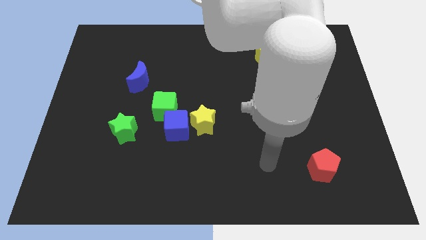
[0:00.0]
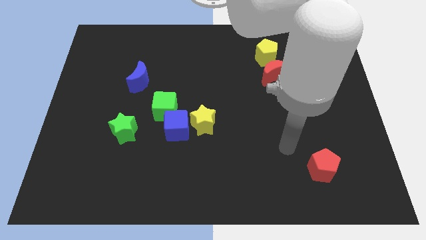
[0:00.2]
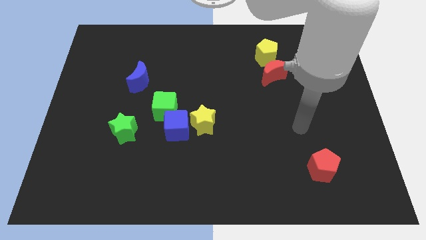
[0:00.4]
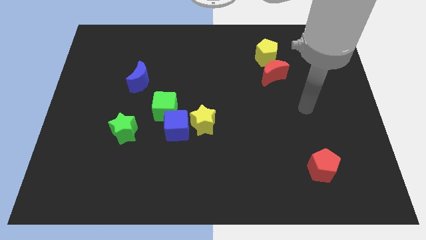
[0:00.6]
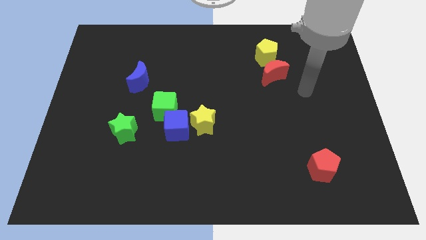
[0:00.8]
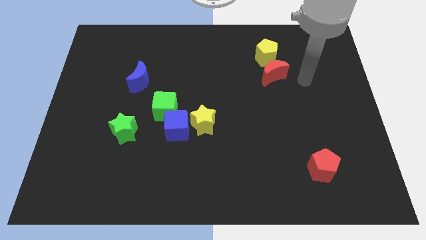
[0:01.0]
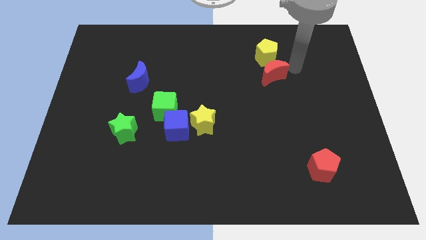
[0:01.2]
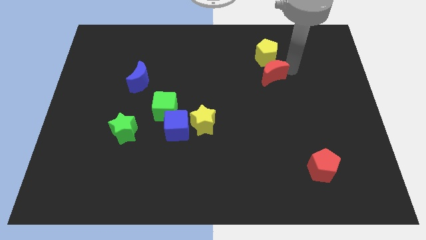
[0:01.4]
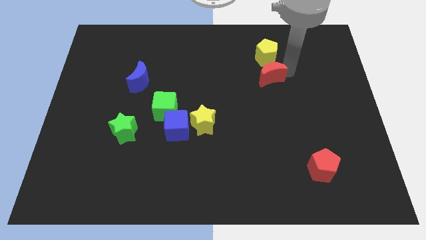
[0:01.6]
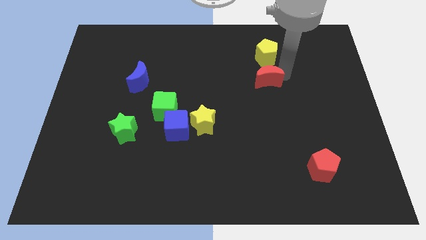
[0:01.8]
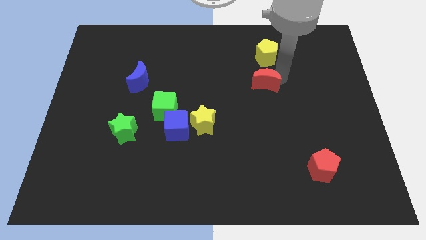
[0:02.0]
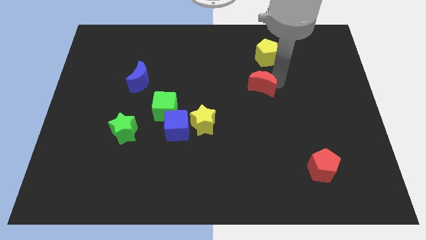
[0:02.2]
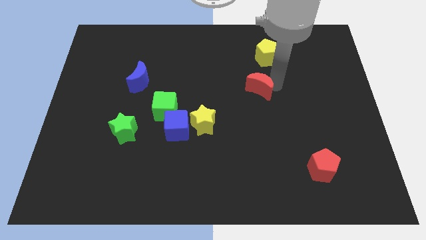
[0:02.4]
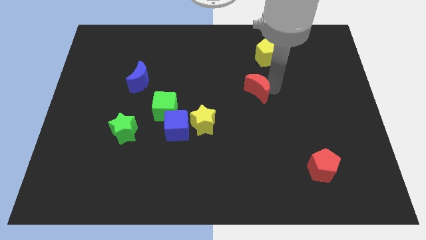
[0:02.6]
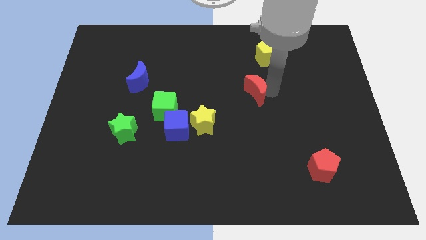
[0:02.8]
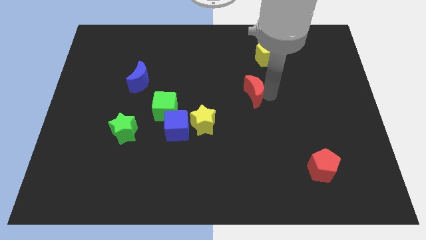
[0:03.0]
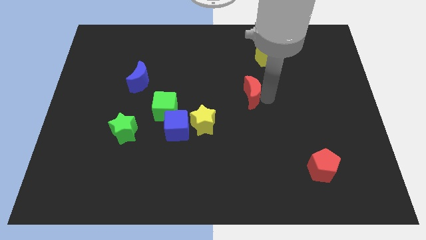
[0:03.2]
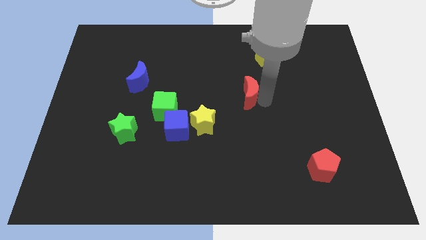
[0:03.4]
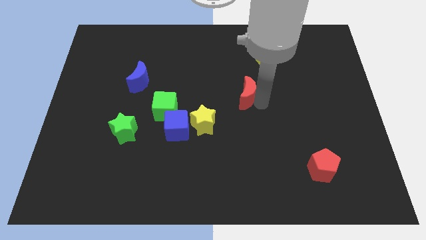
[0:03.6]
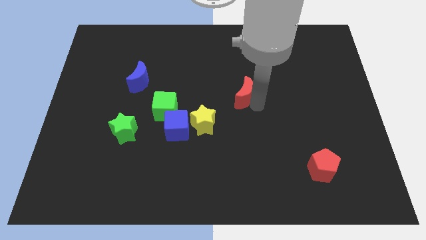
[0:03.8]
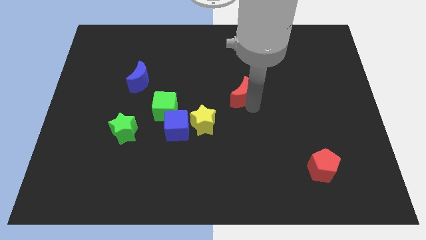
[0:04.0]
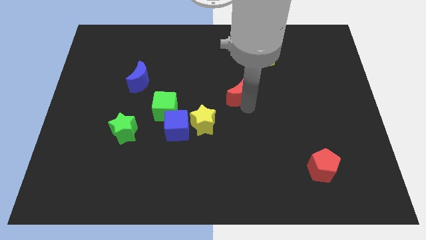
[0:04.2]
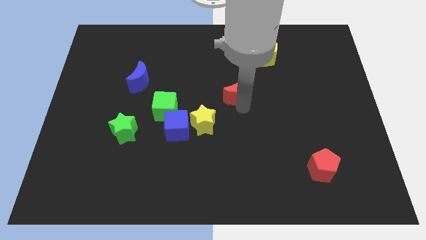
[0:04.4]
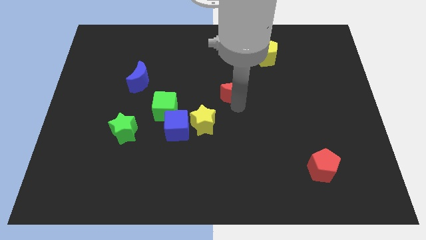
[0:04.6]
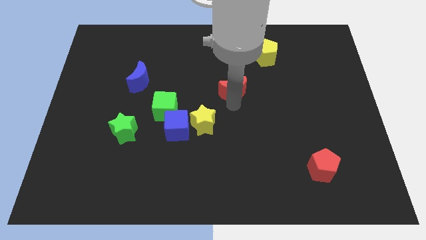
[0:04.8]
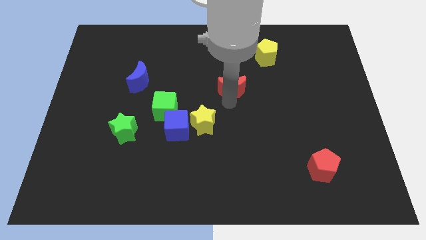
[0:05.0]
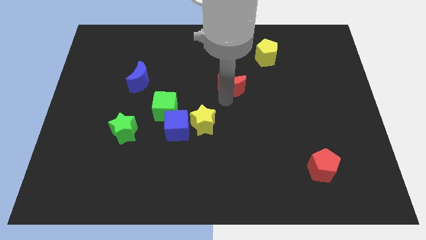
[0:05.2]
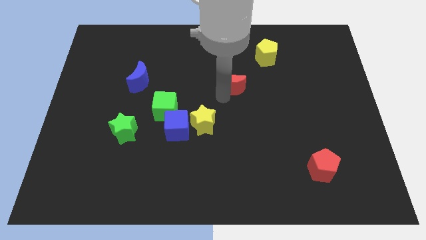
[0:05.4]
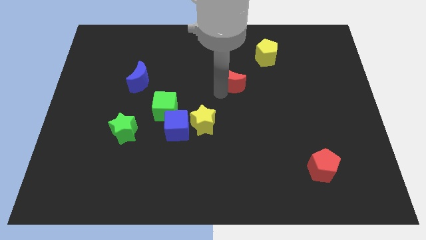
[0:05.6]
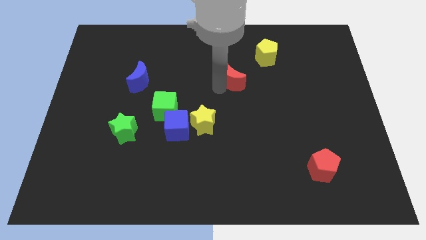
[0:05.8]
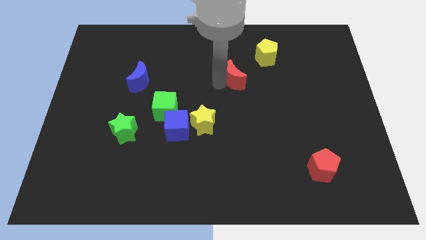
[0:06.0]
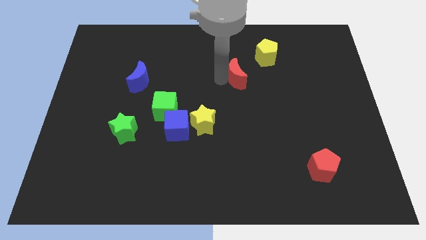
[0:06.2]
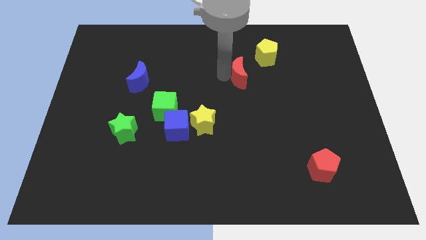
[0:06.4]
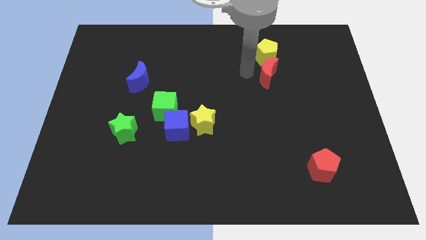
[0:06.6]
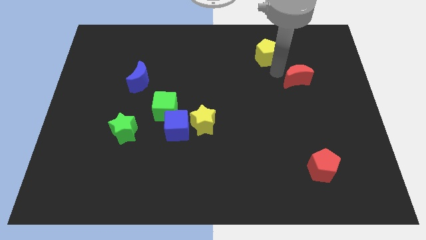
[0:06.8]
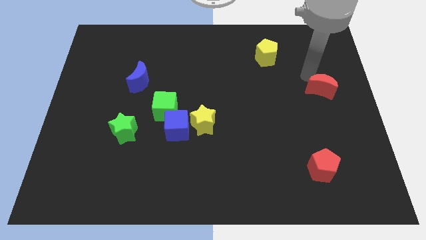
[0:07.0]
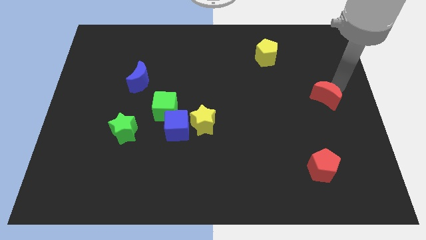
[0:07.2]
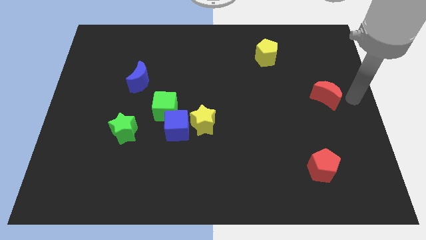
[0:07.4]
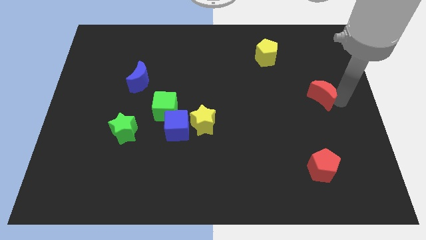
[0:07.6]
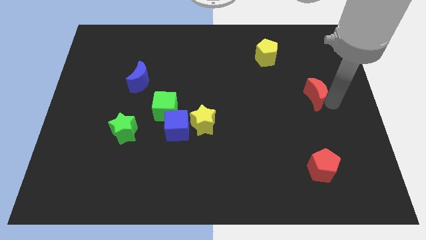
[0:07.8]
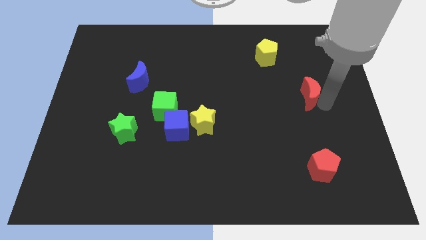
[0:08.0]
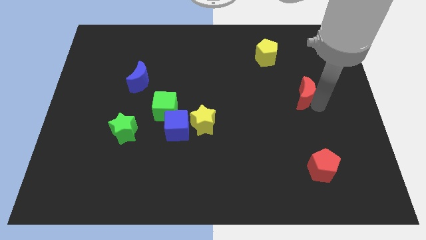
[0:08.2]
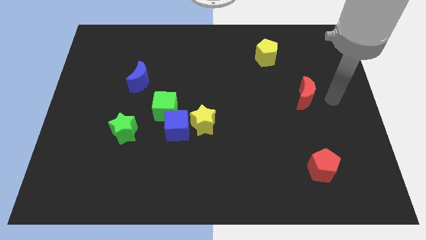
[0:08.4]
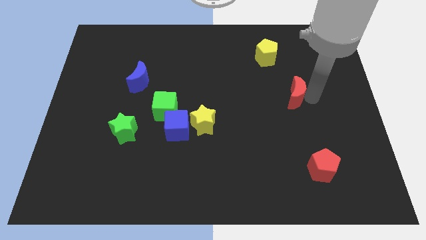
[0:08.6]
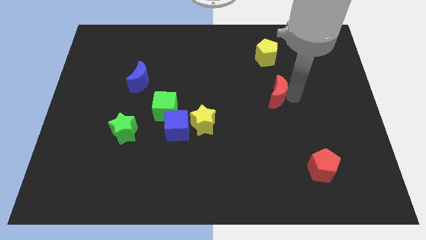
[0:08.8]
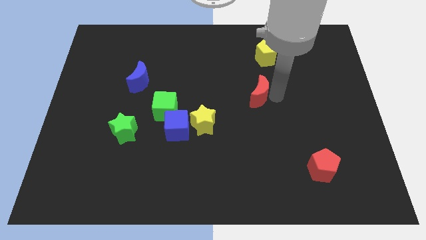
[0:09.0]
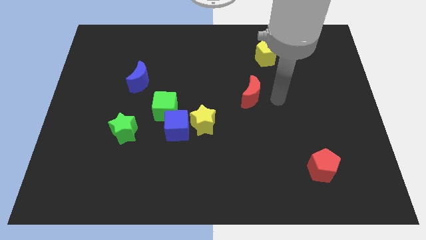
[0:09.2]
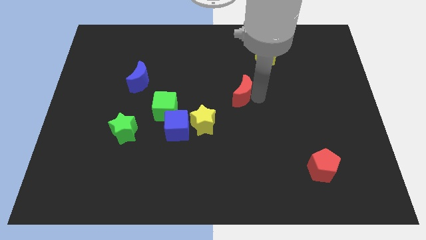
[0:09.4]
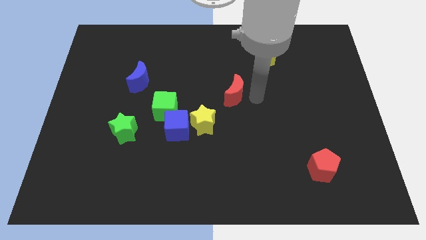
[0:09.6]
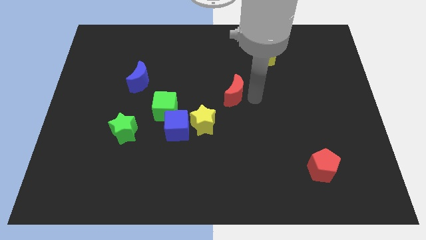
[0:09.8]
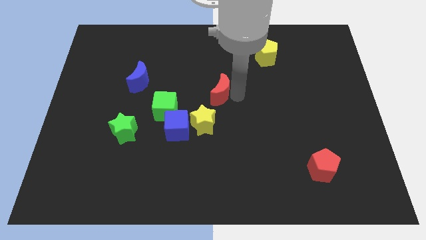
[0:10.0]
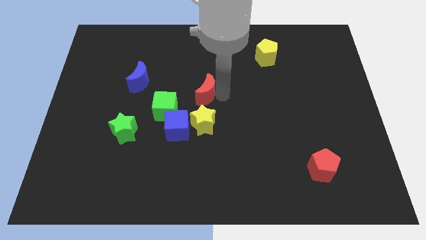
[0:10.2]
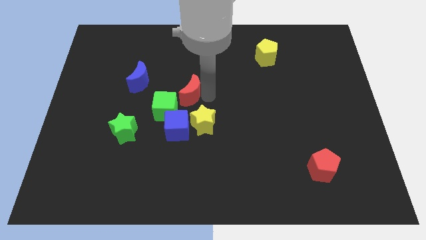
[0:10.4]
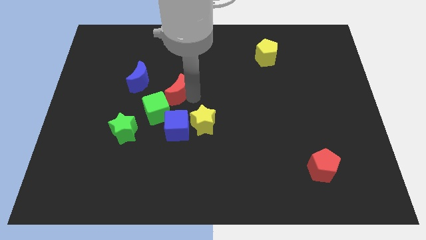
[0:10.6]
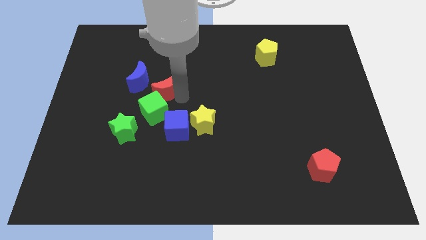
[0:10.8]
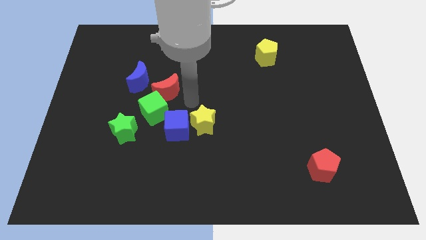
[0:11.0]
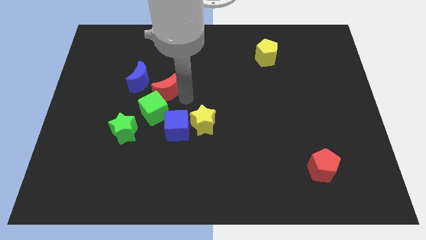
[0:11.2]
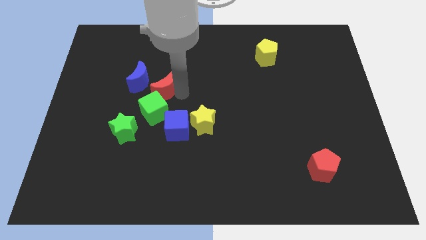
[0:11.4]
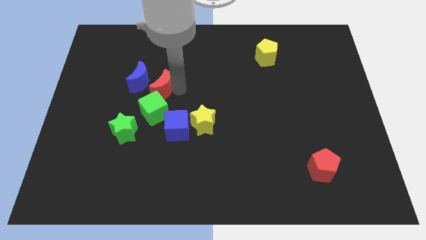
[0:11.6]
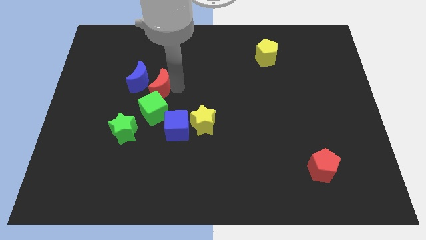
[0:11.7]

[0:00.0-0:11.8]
put the red moon close to the blue moon

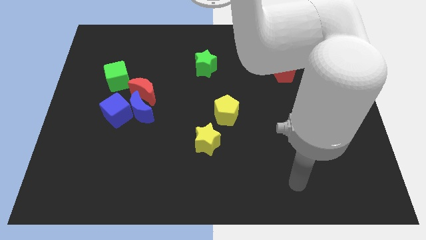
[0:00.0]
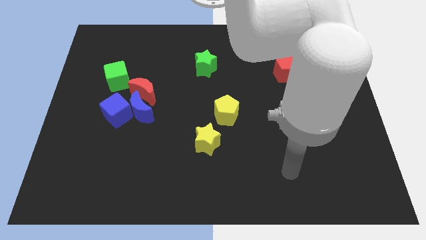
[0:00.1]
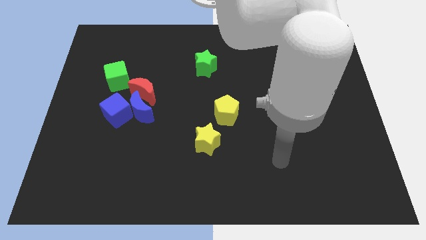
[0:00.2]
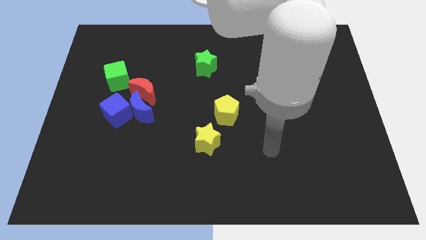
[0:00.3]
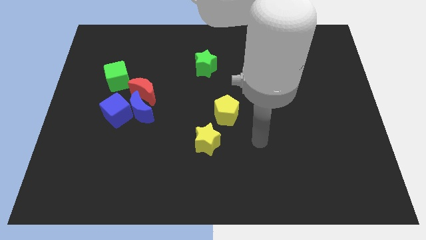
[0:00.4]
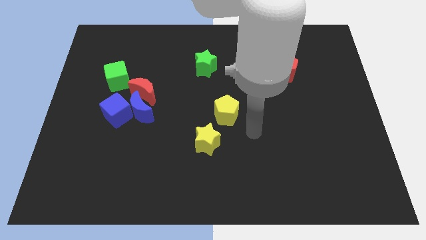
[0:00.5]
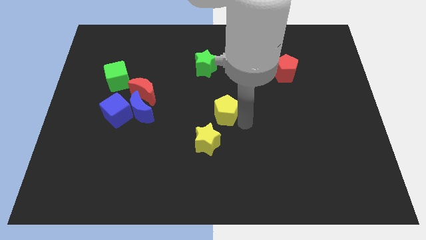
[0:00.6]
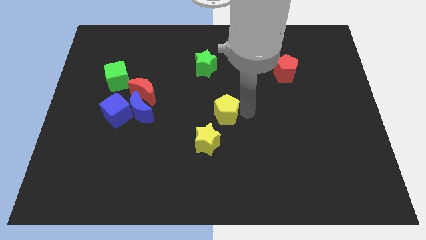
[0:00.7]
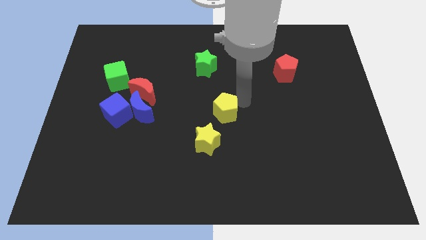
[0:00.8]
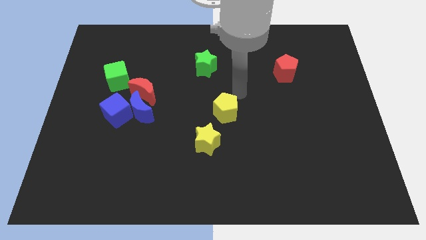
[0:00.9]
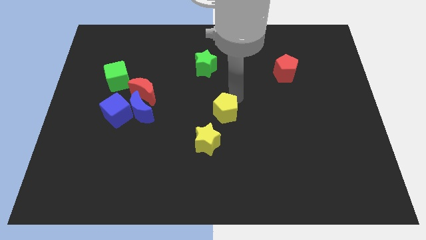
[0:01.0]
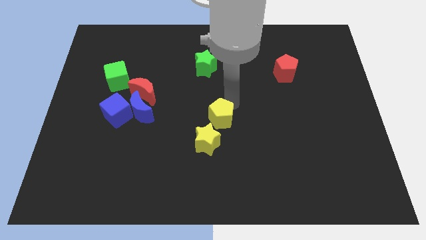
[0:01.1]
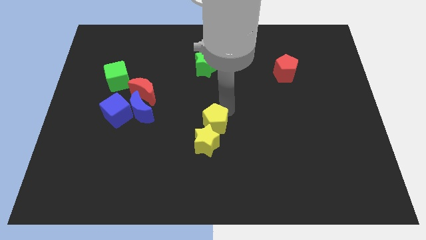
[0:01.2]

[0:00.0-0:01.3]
push the yellow pentagon to the yellow star

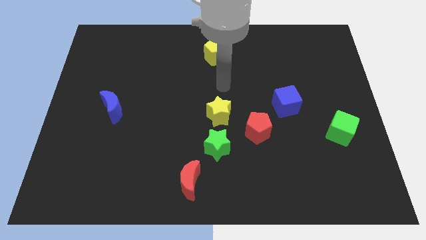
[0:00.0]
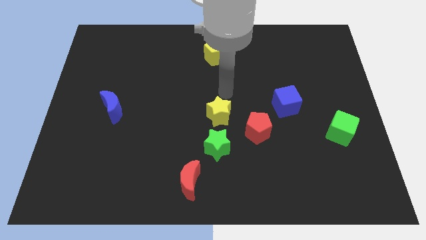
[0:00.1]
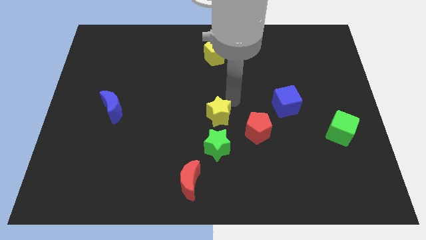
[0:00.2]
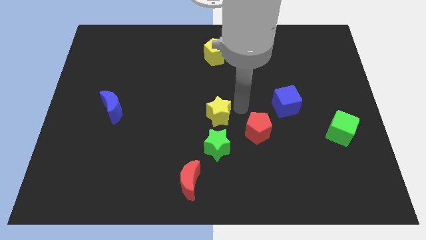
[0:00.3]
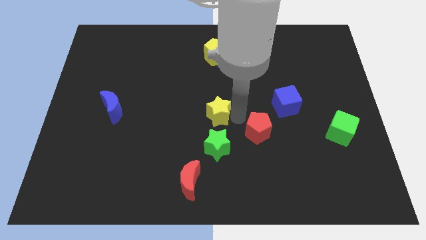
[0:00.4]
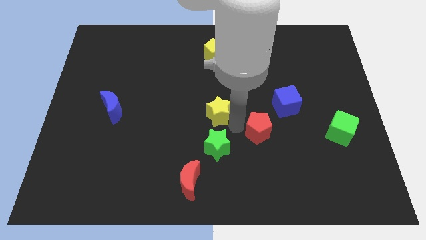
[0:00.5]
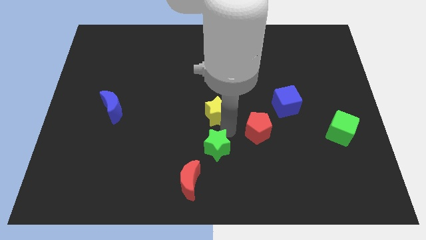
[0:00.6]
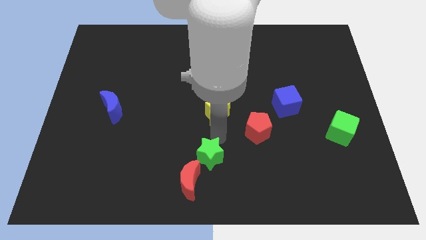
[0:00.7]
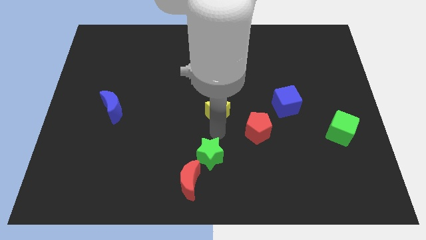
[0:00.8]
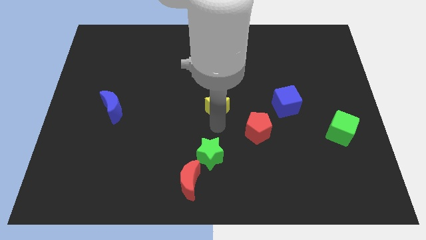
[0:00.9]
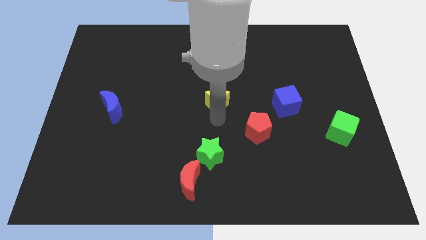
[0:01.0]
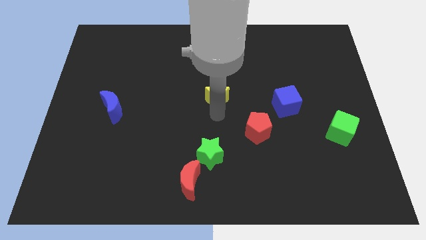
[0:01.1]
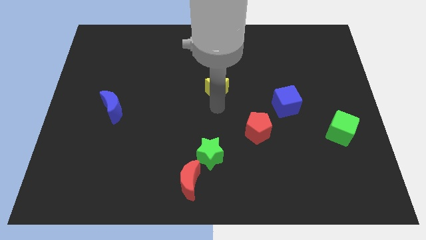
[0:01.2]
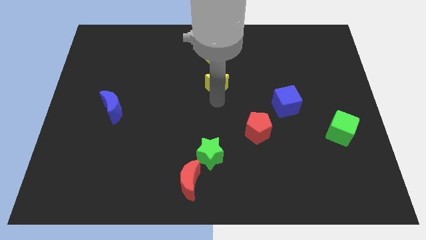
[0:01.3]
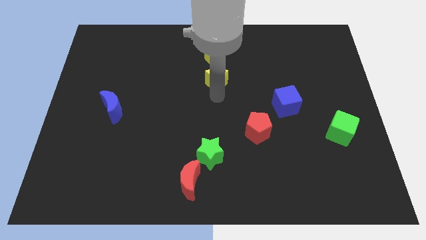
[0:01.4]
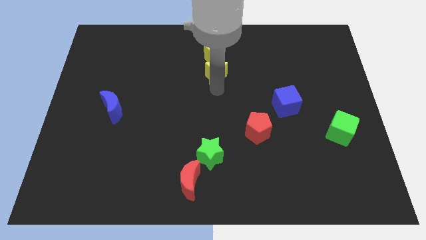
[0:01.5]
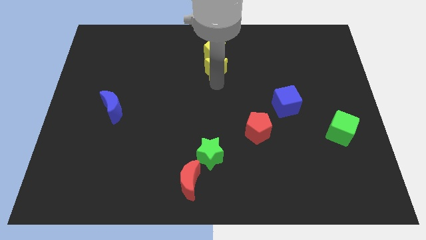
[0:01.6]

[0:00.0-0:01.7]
move the yellow star close to the yellow pentagon
